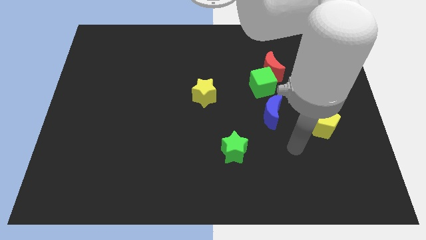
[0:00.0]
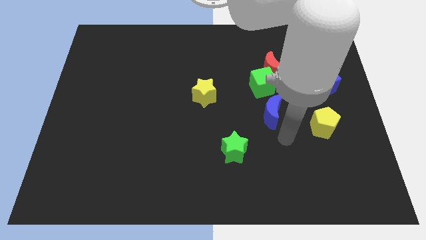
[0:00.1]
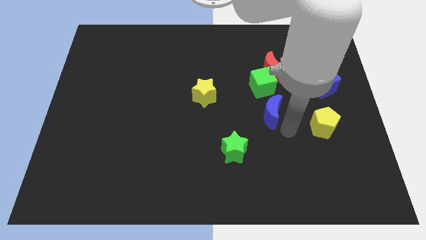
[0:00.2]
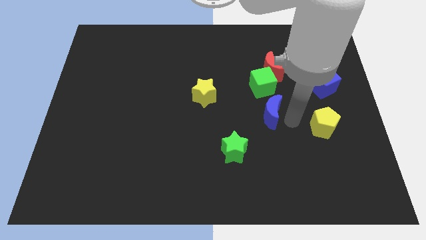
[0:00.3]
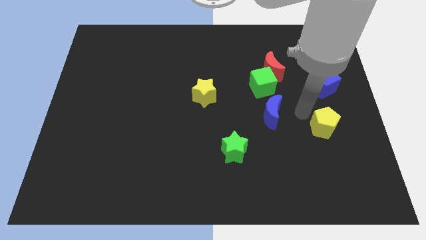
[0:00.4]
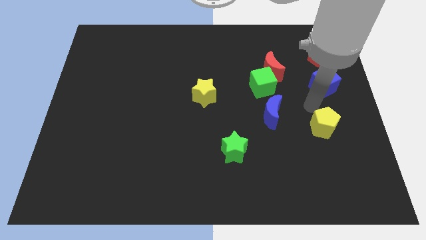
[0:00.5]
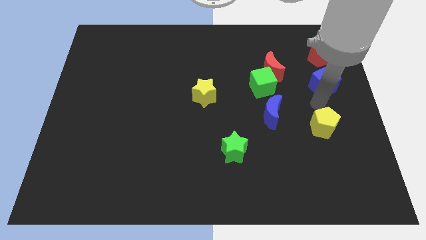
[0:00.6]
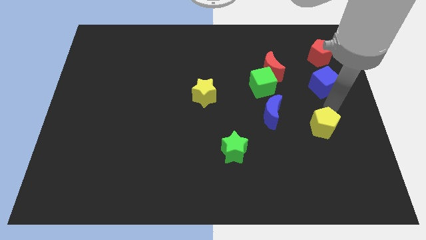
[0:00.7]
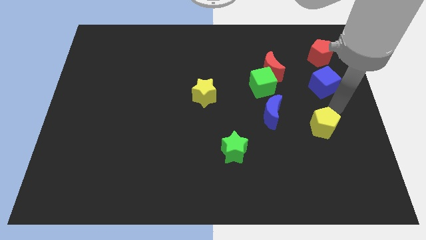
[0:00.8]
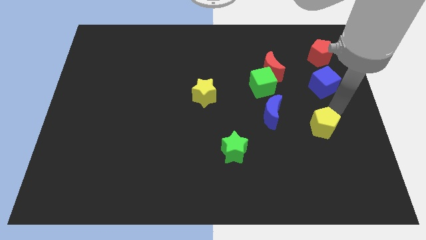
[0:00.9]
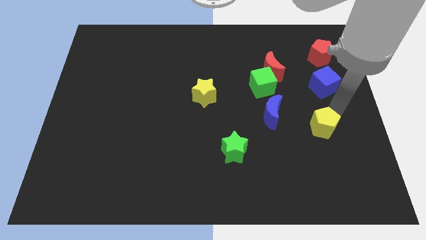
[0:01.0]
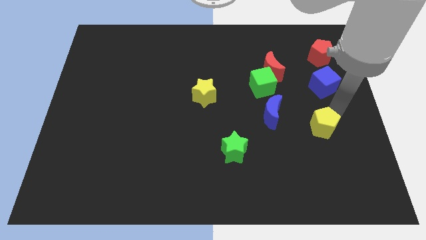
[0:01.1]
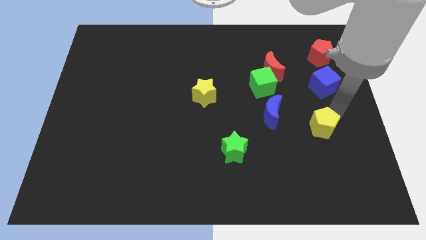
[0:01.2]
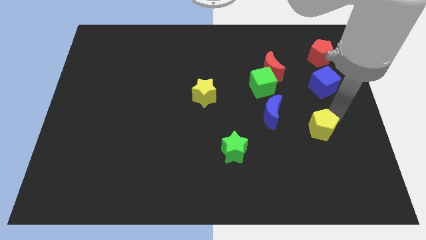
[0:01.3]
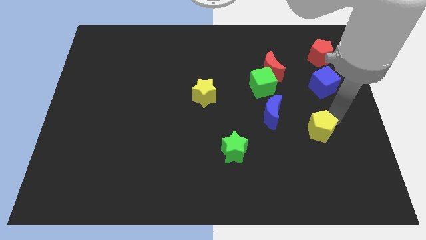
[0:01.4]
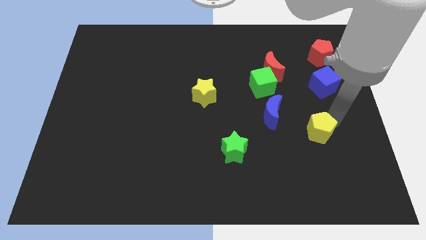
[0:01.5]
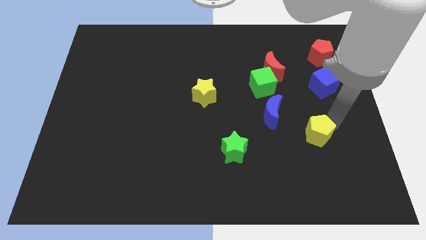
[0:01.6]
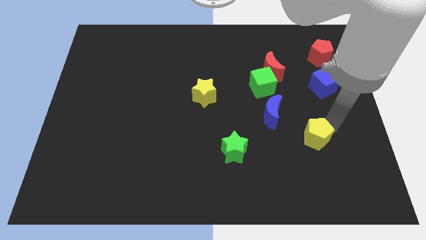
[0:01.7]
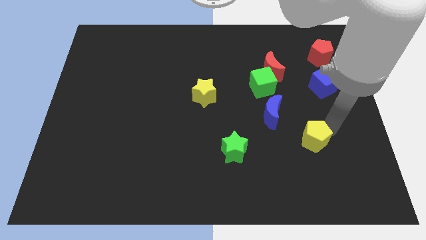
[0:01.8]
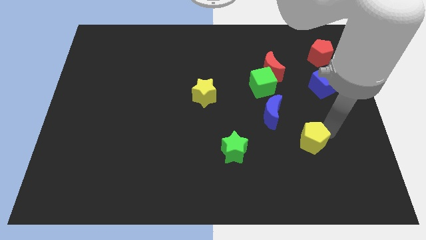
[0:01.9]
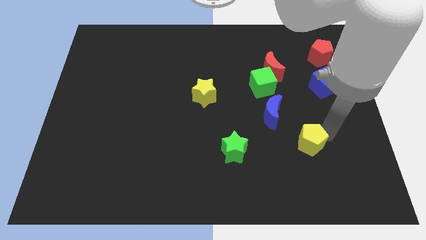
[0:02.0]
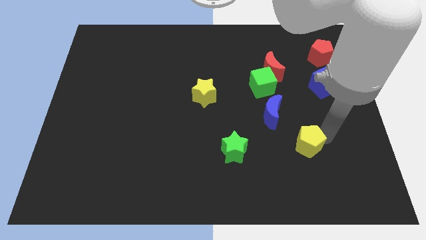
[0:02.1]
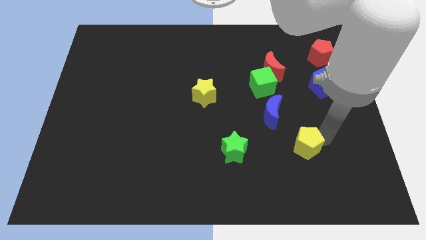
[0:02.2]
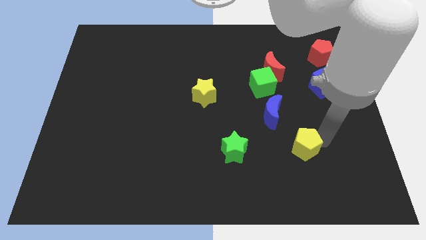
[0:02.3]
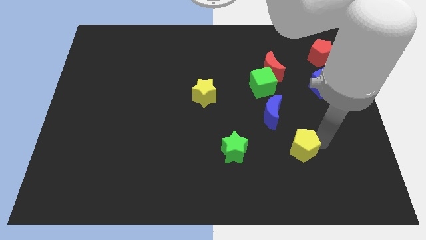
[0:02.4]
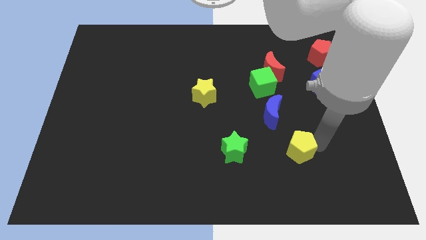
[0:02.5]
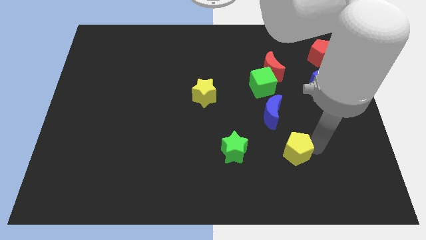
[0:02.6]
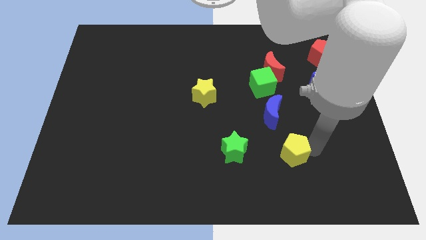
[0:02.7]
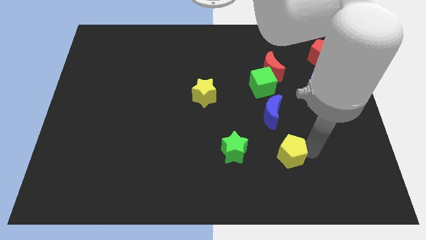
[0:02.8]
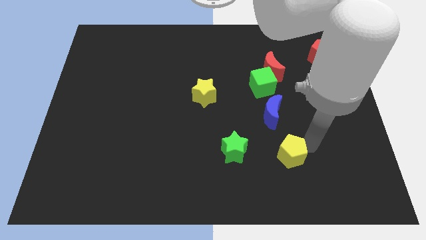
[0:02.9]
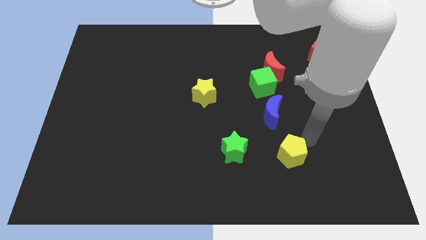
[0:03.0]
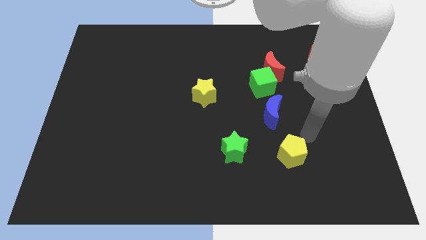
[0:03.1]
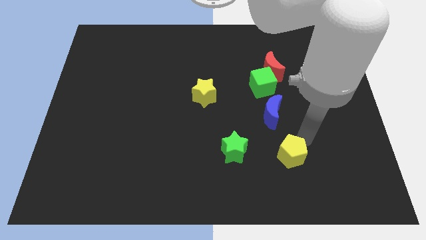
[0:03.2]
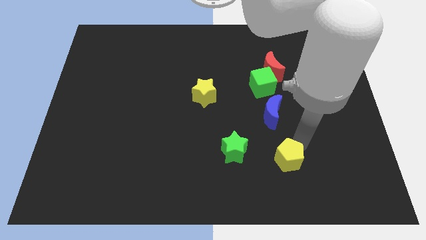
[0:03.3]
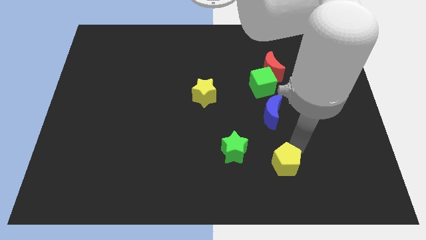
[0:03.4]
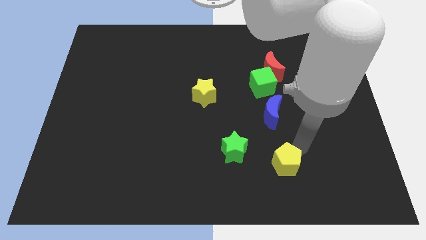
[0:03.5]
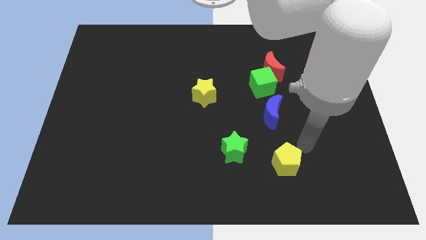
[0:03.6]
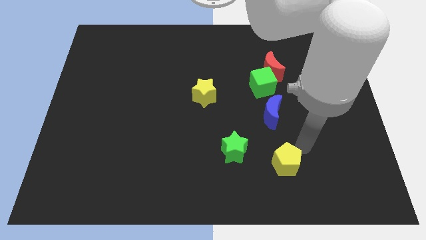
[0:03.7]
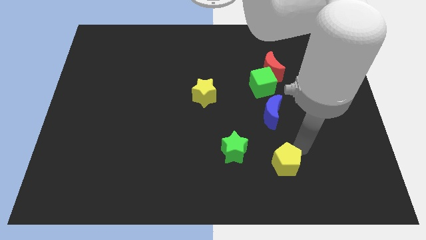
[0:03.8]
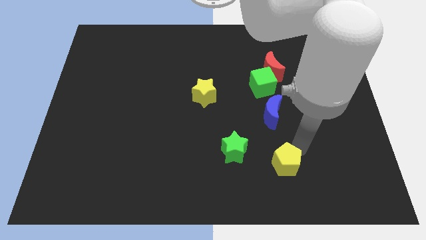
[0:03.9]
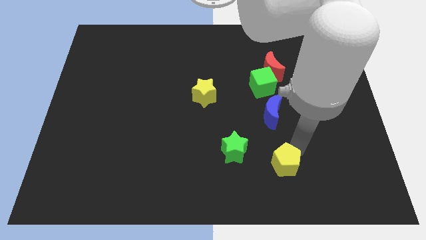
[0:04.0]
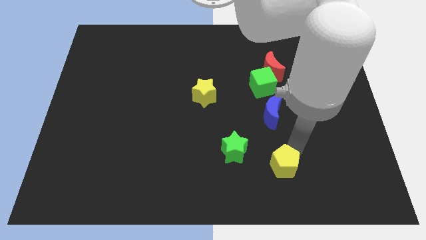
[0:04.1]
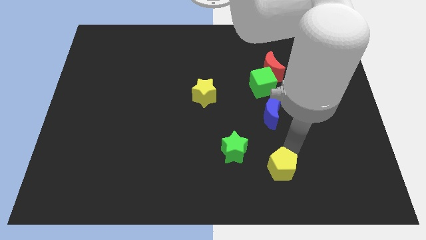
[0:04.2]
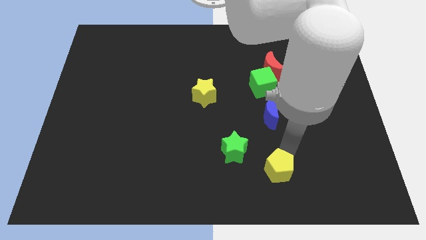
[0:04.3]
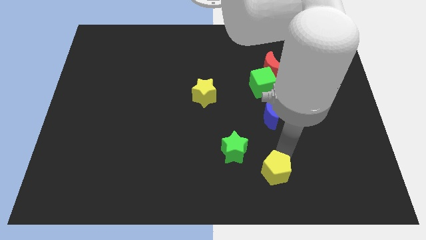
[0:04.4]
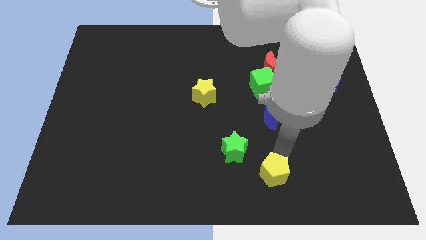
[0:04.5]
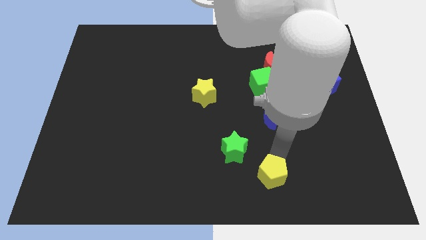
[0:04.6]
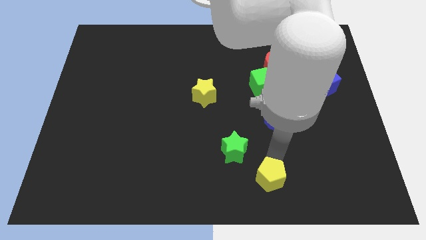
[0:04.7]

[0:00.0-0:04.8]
move the yellow pentagon to the bottom side

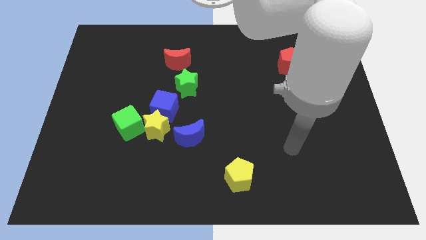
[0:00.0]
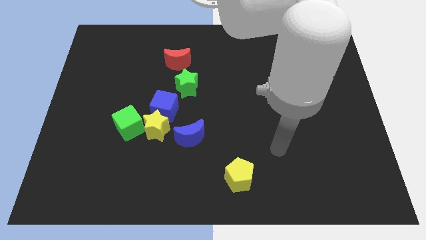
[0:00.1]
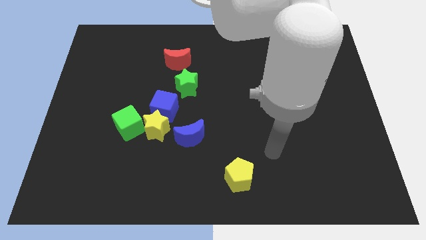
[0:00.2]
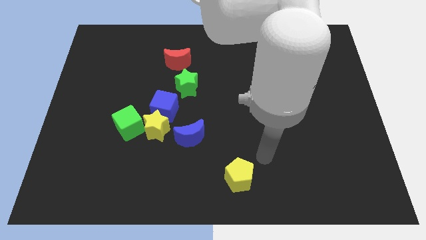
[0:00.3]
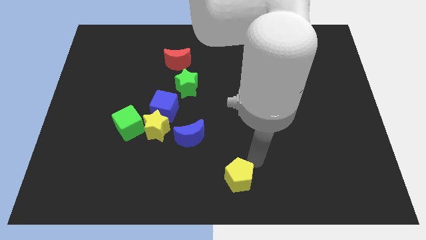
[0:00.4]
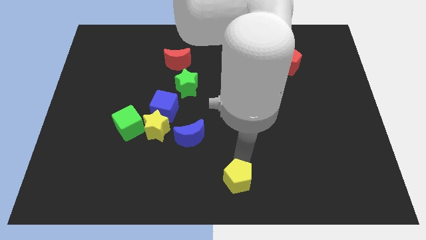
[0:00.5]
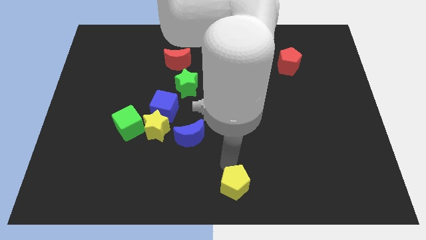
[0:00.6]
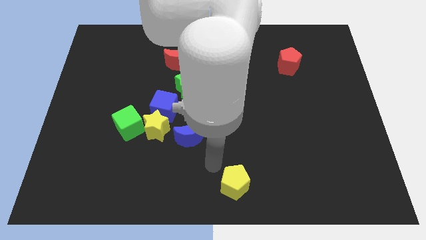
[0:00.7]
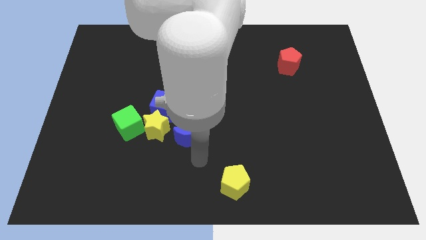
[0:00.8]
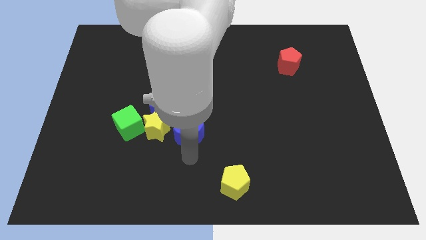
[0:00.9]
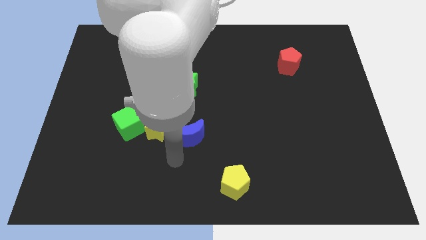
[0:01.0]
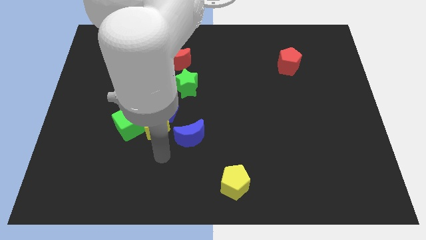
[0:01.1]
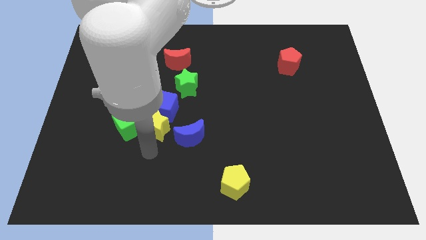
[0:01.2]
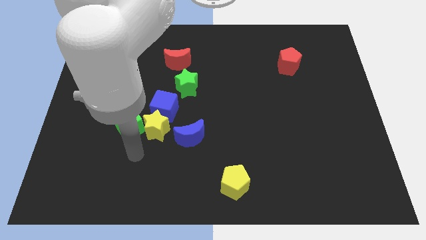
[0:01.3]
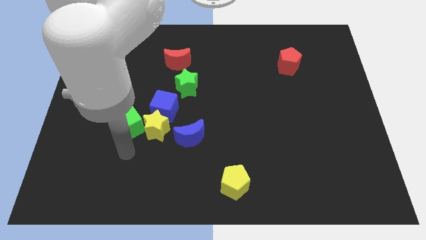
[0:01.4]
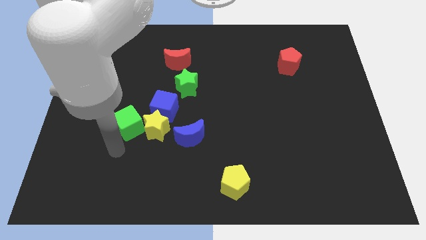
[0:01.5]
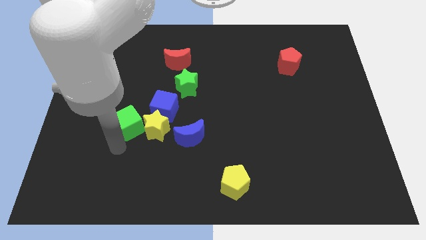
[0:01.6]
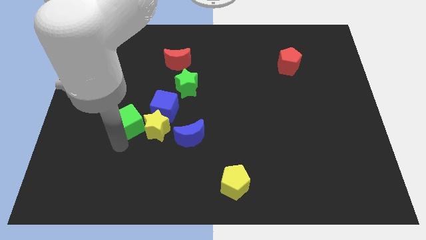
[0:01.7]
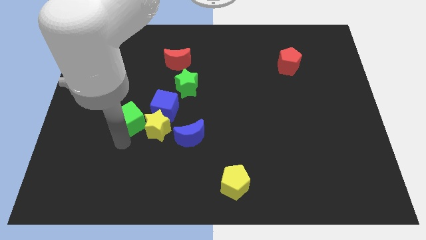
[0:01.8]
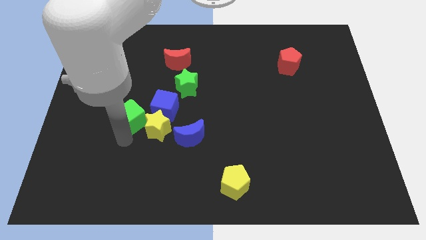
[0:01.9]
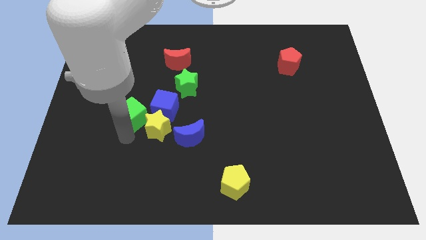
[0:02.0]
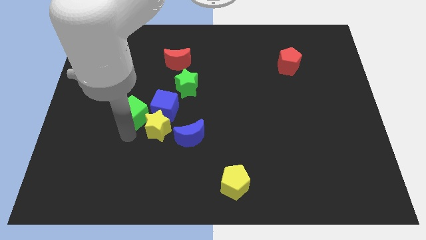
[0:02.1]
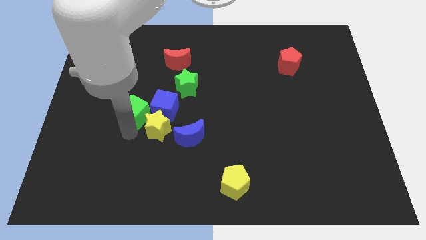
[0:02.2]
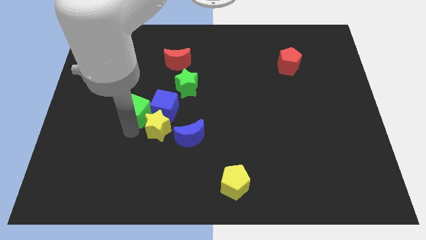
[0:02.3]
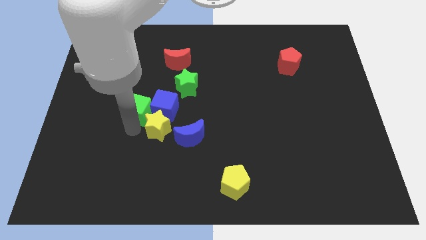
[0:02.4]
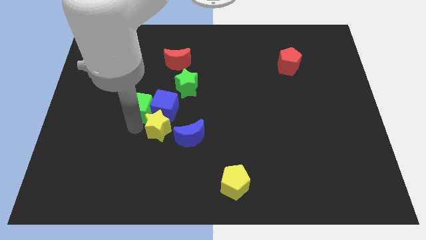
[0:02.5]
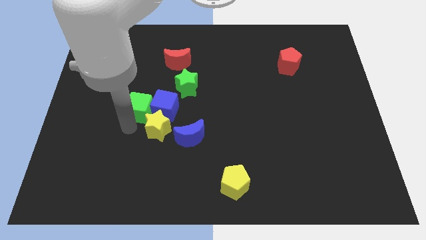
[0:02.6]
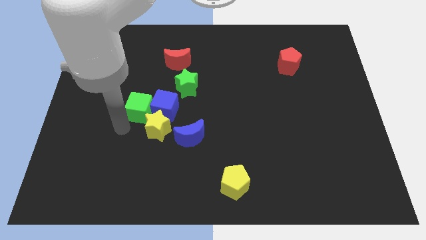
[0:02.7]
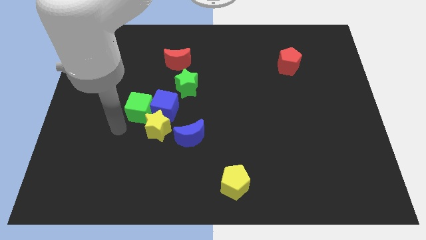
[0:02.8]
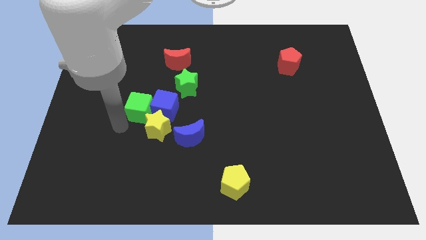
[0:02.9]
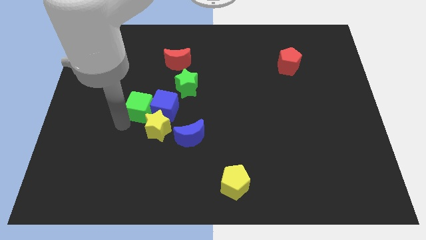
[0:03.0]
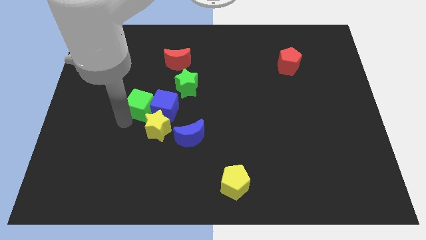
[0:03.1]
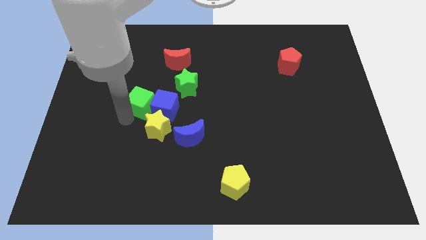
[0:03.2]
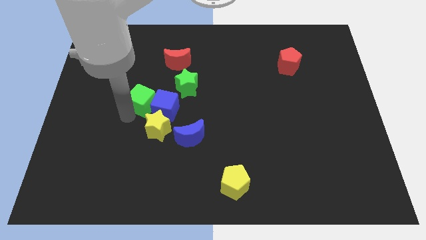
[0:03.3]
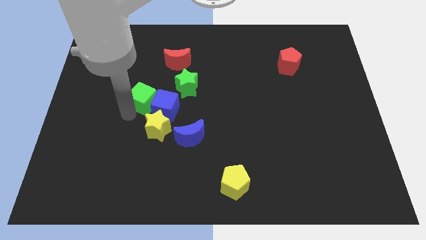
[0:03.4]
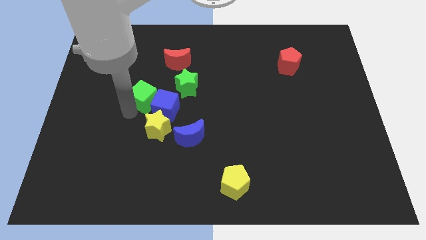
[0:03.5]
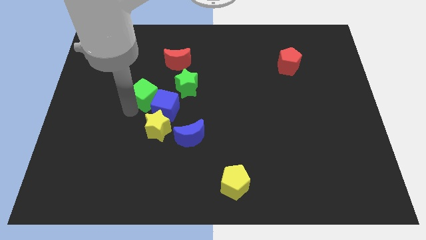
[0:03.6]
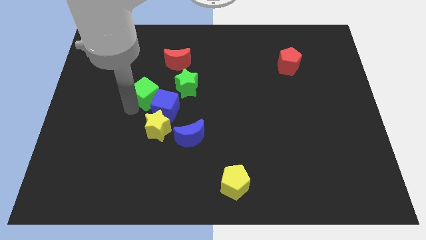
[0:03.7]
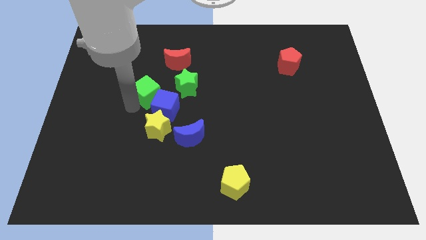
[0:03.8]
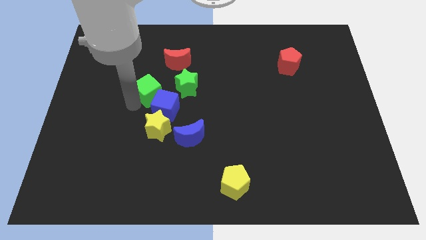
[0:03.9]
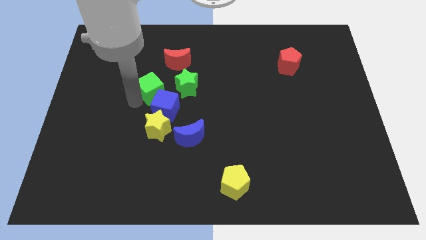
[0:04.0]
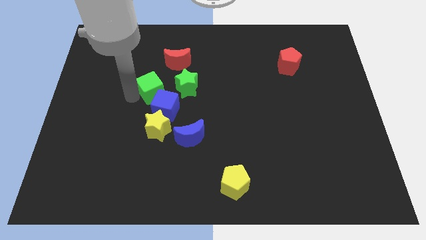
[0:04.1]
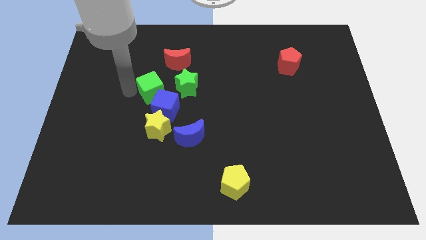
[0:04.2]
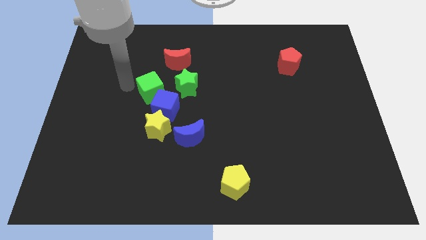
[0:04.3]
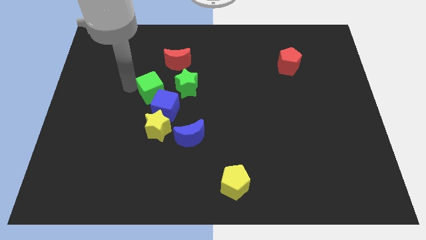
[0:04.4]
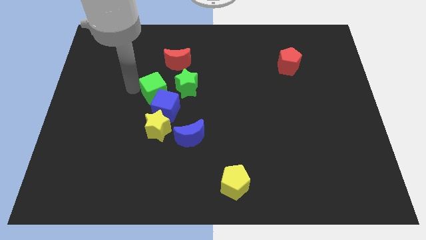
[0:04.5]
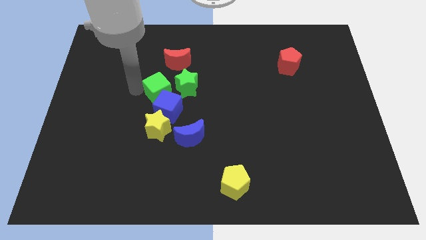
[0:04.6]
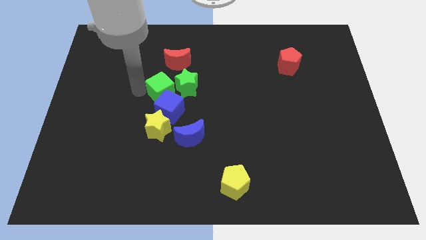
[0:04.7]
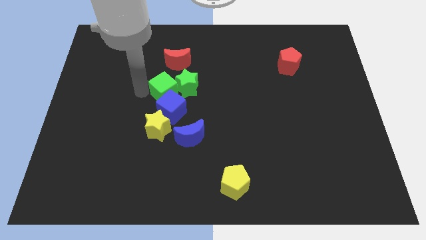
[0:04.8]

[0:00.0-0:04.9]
push the green cube to the center of the board
